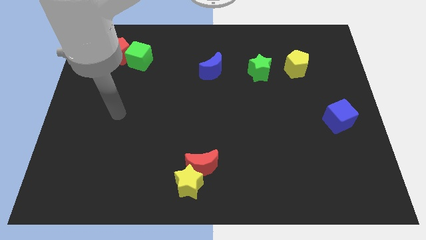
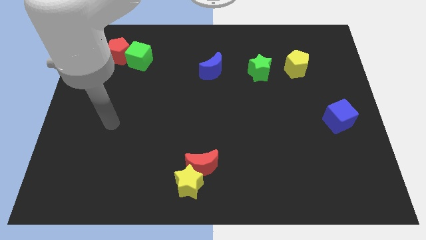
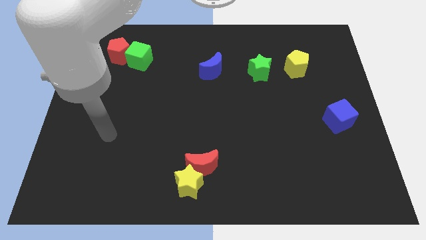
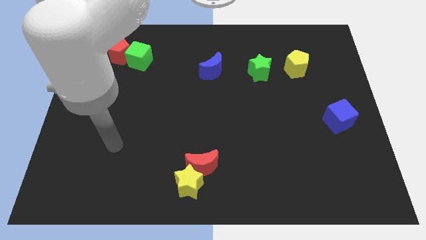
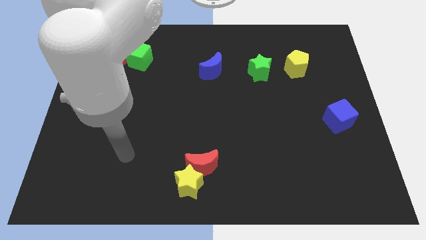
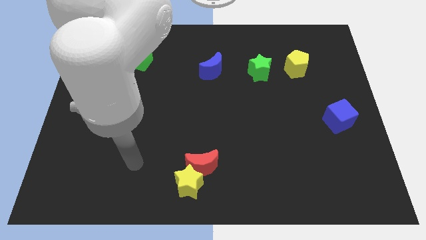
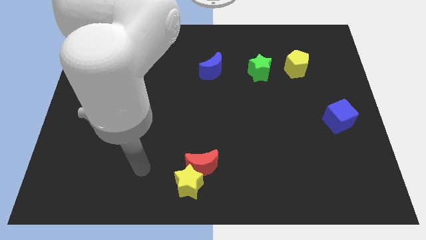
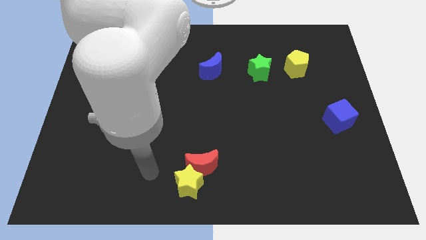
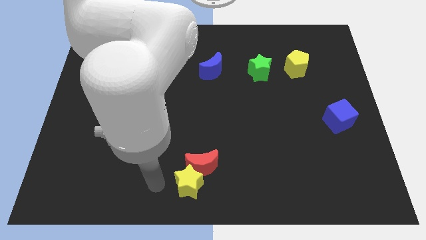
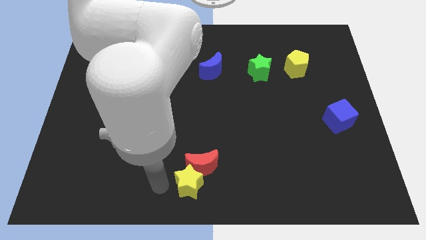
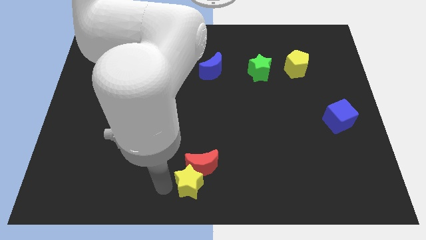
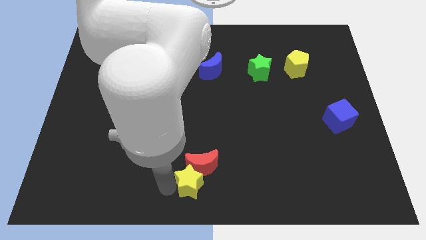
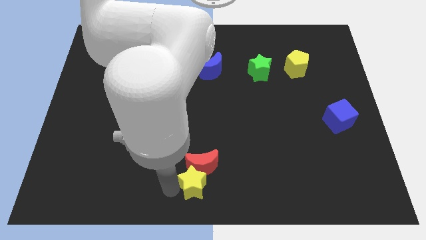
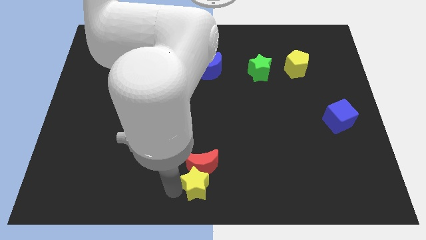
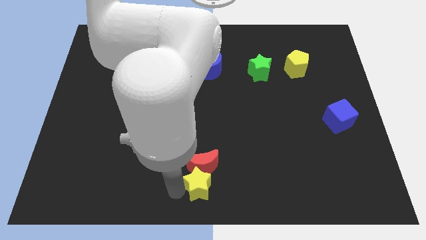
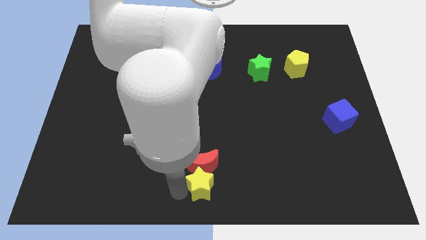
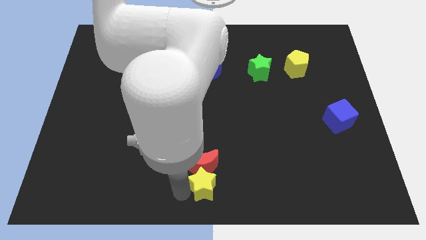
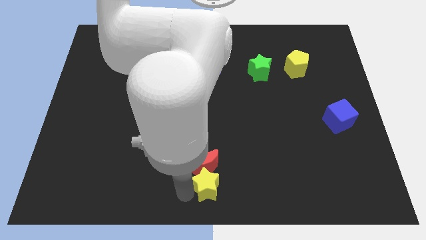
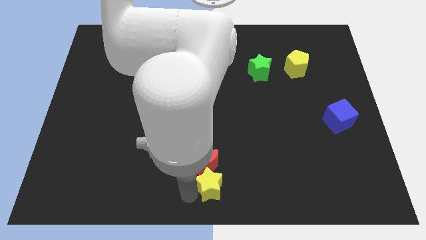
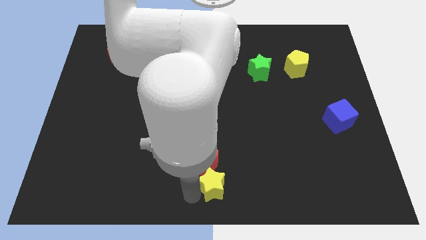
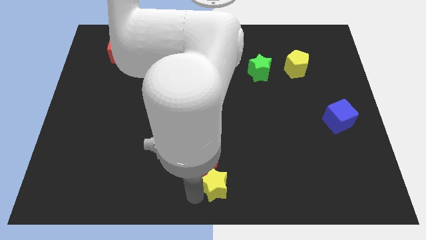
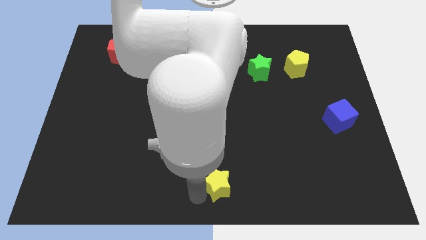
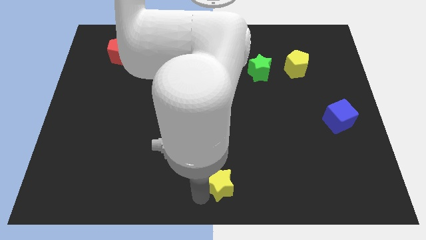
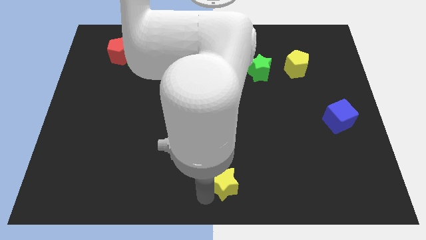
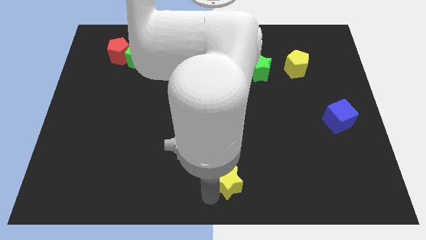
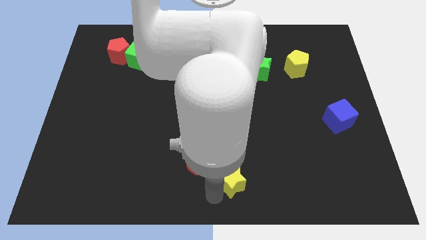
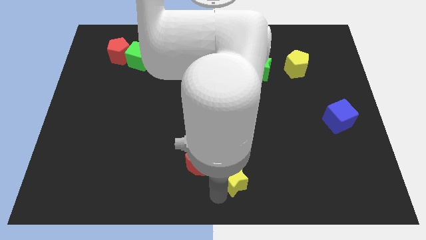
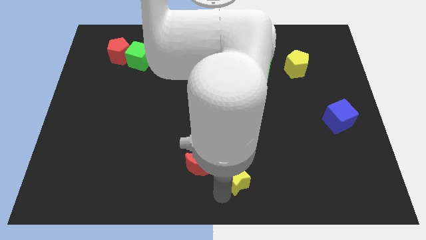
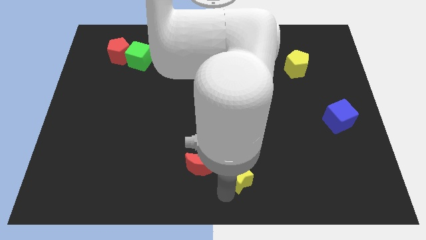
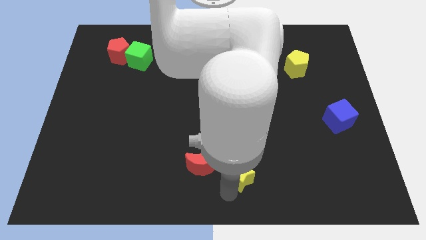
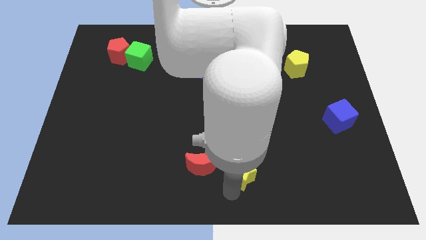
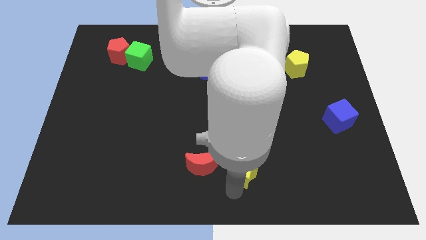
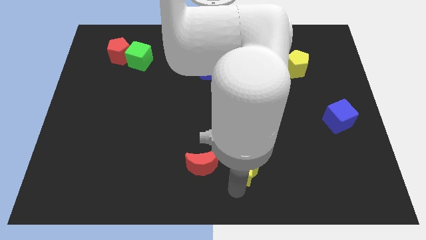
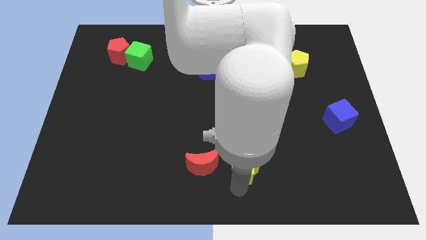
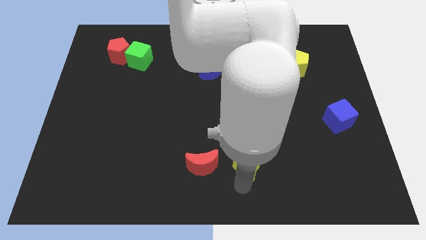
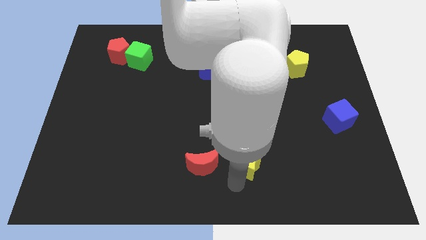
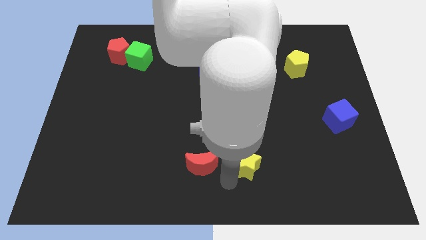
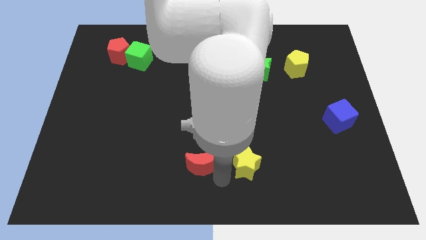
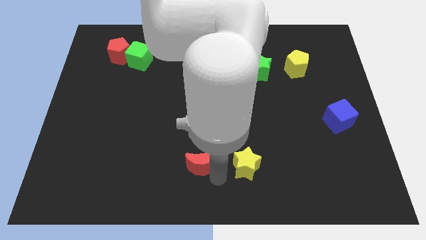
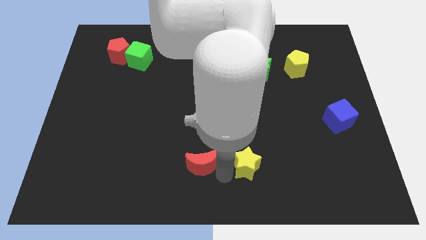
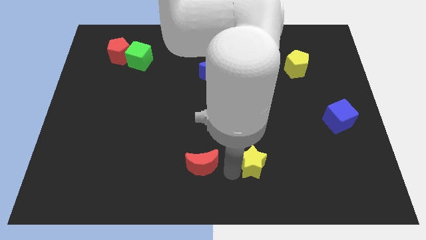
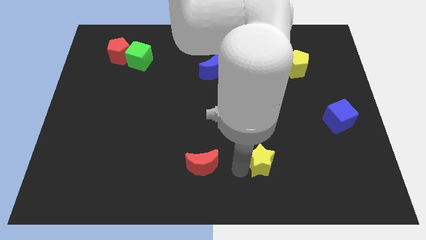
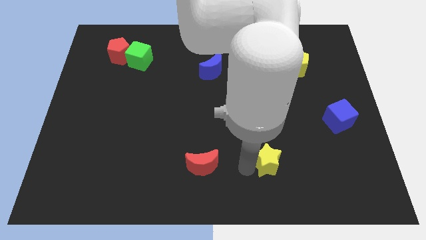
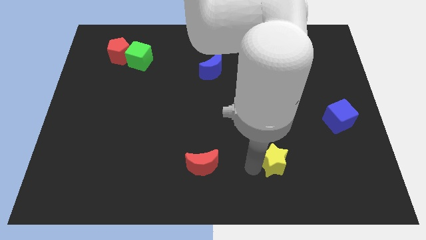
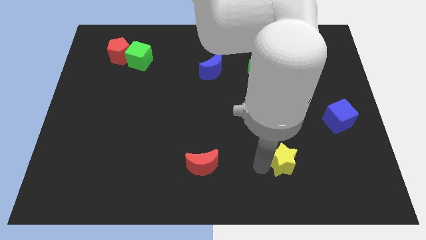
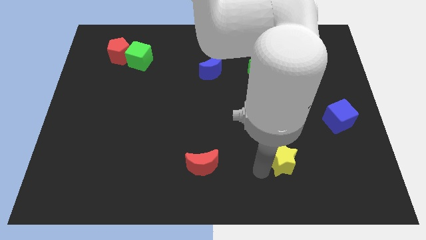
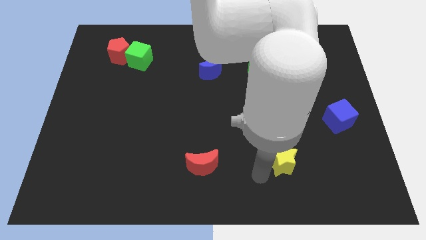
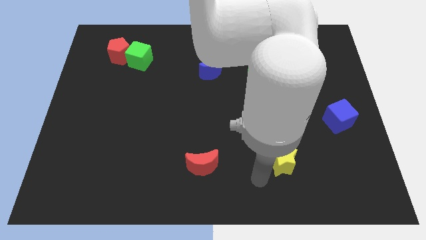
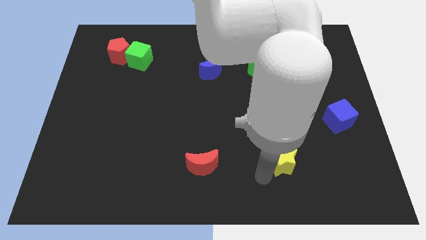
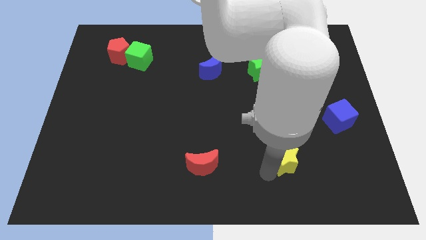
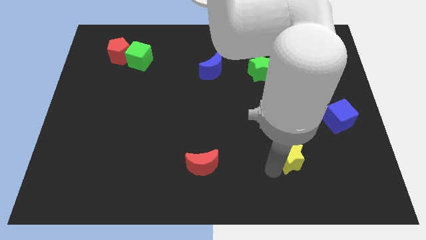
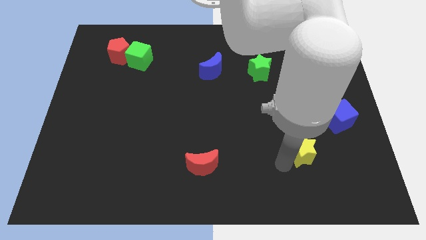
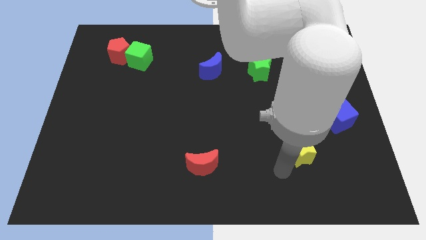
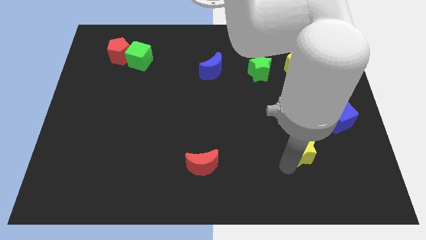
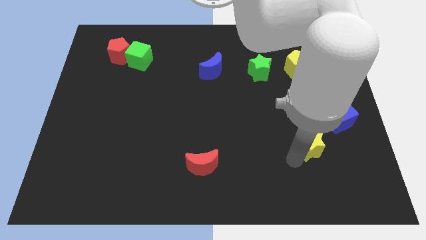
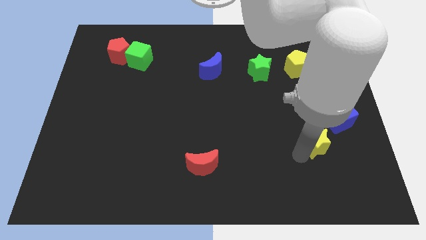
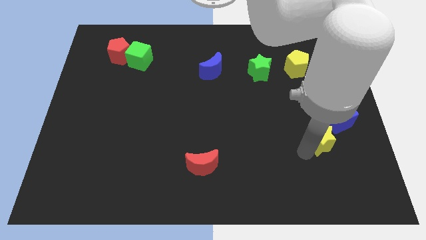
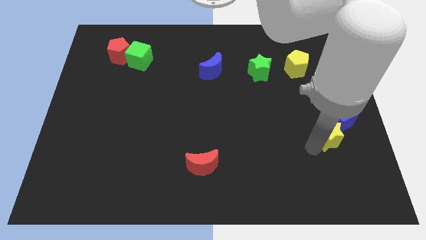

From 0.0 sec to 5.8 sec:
put the yellow star next to the blue cube

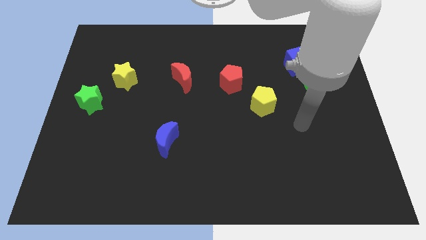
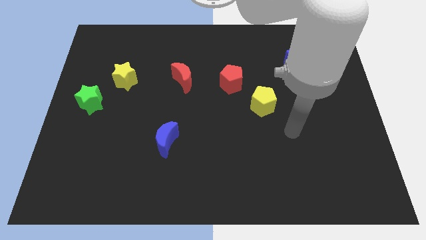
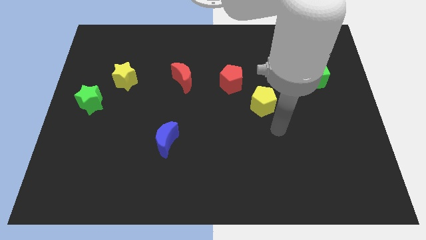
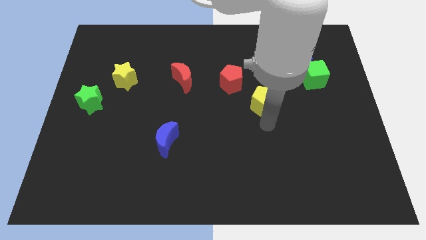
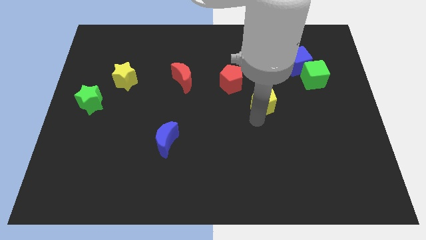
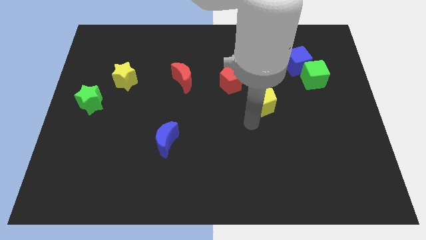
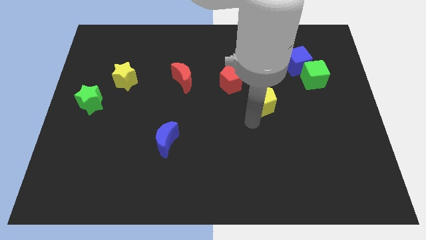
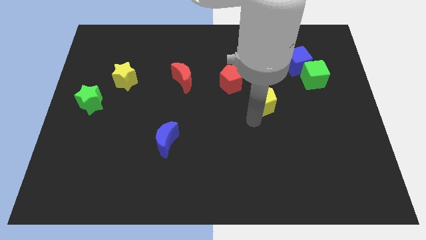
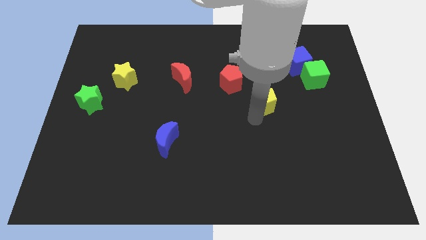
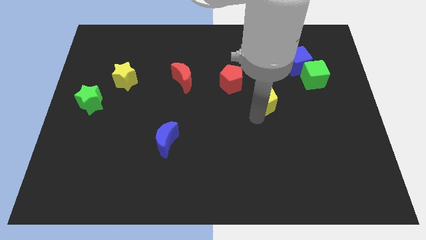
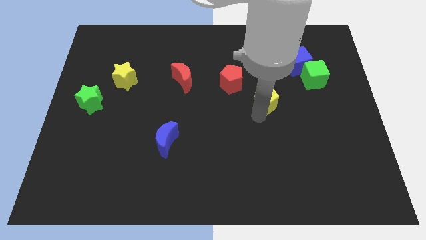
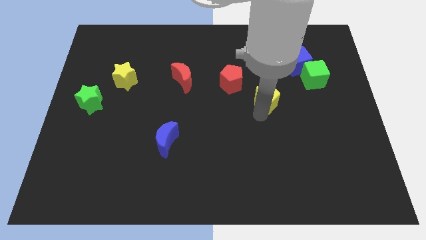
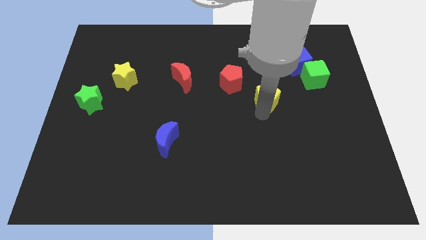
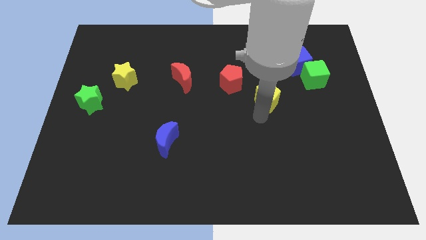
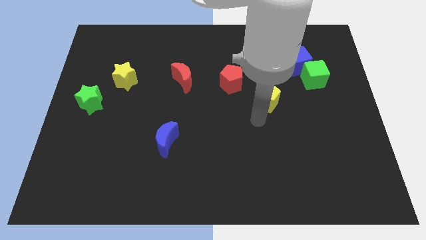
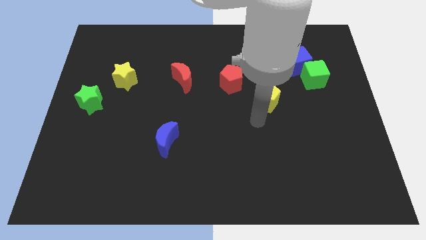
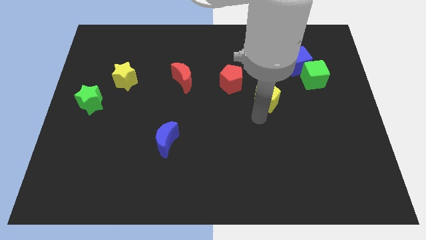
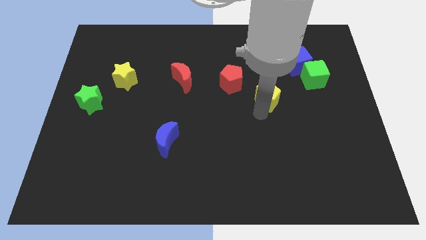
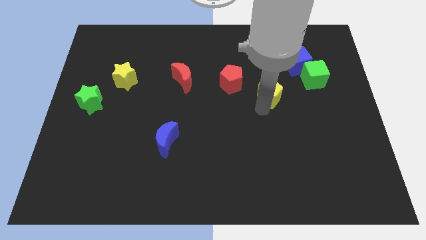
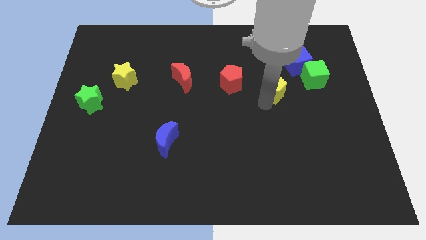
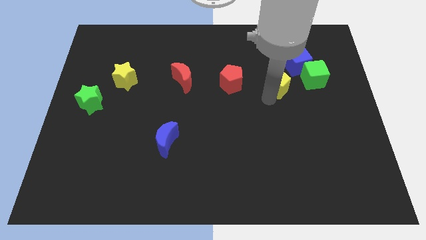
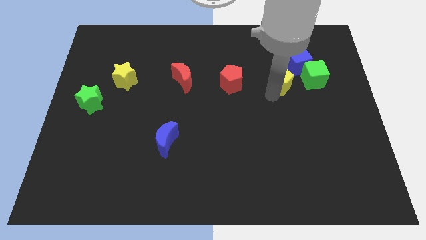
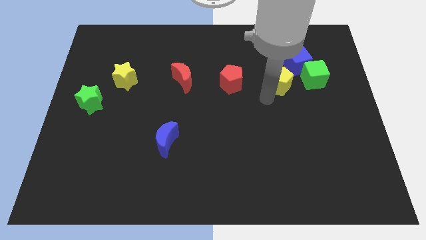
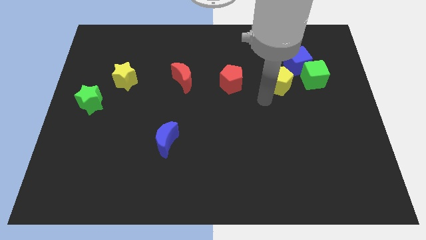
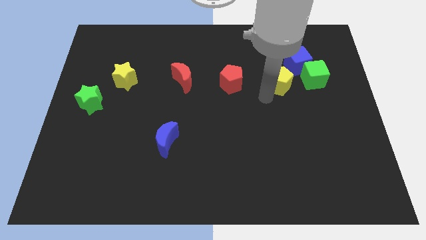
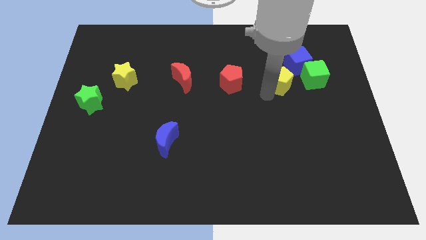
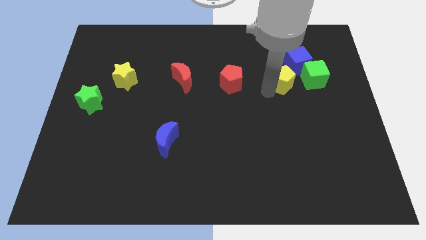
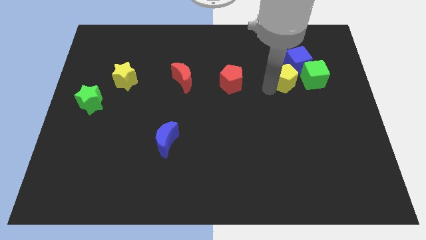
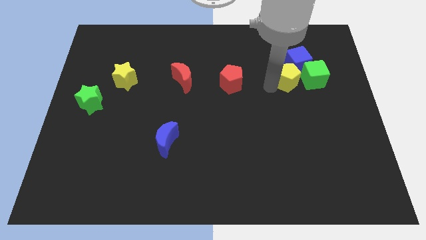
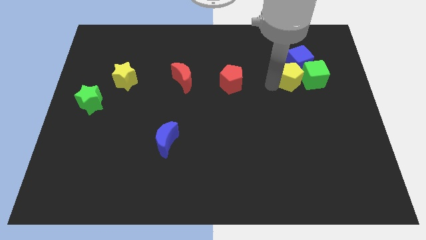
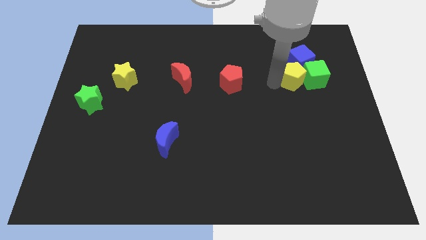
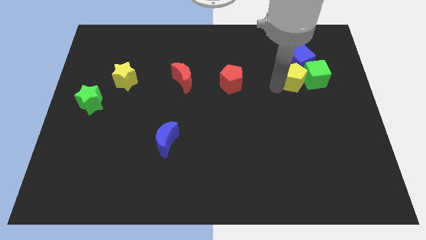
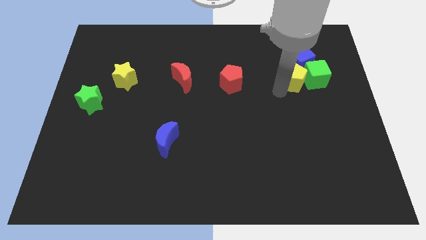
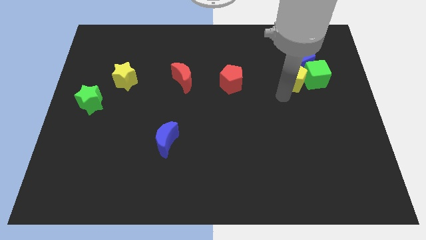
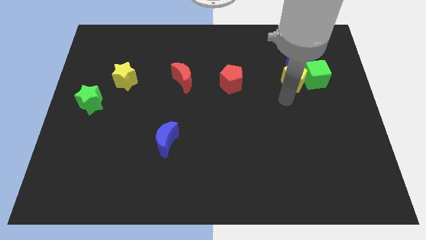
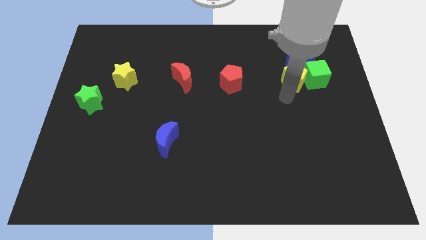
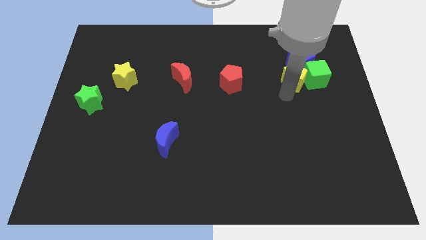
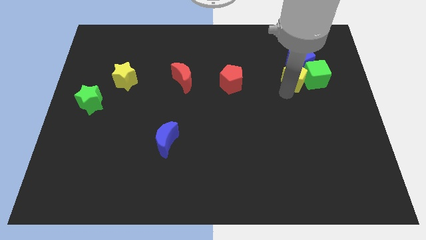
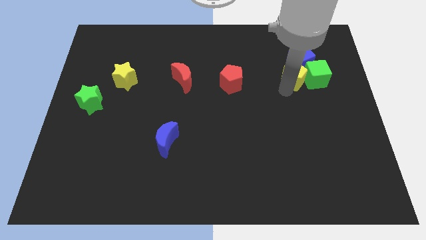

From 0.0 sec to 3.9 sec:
push the yellow pentagon close to the blue cube
